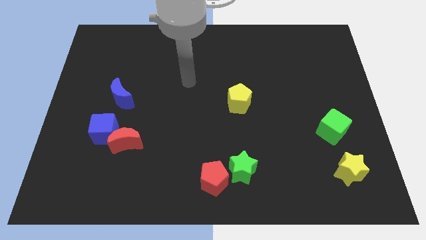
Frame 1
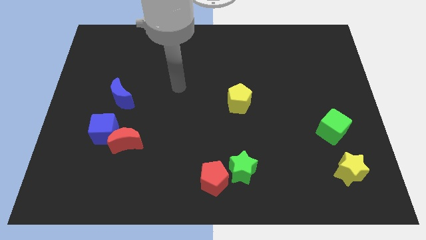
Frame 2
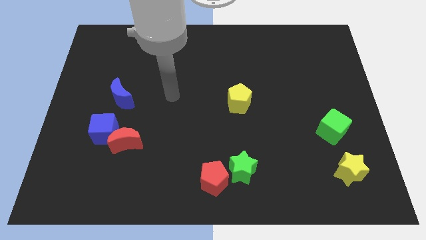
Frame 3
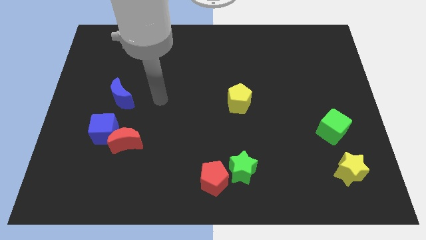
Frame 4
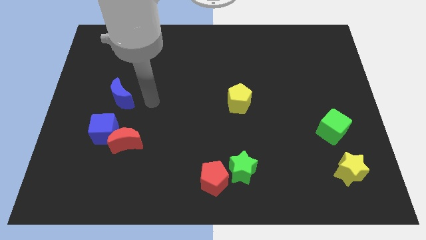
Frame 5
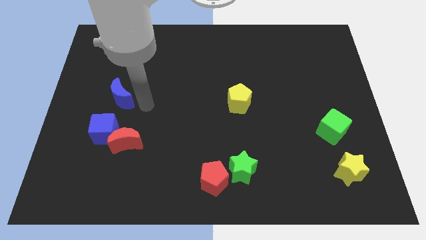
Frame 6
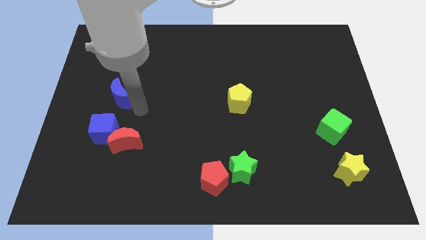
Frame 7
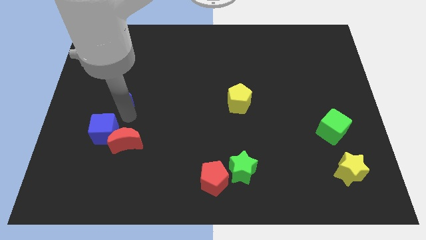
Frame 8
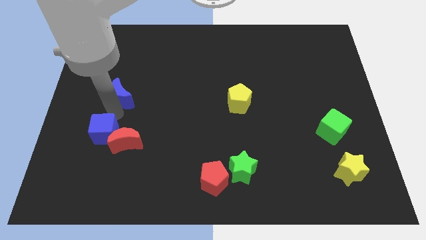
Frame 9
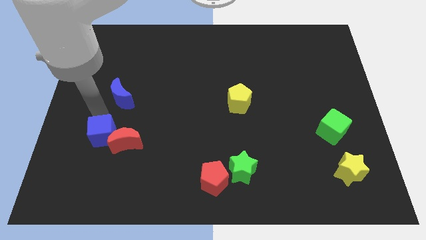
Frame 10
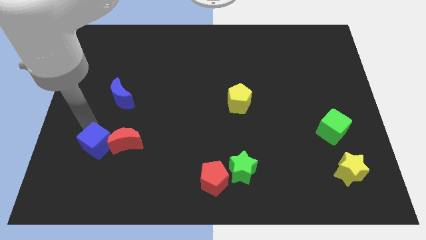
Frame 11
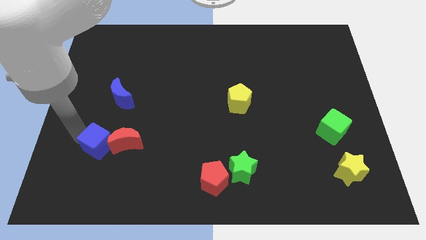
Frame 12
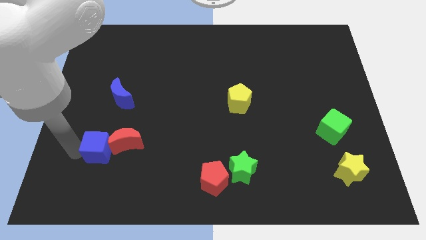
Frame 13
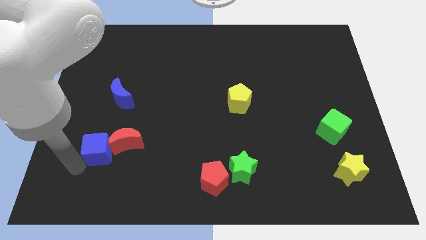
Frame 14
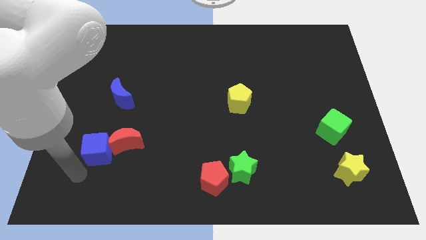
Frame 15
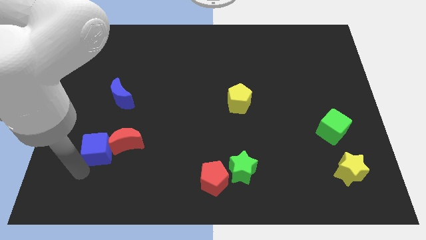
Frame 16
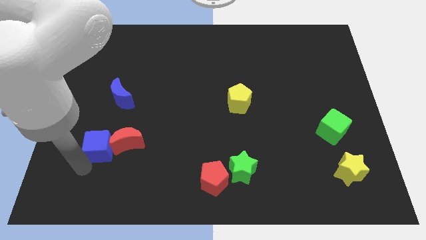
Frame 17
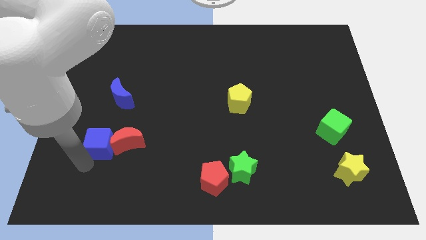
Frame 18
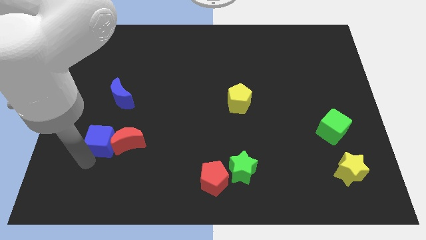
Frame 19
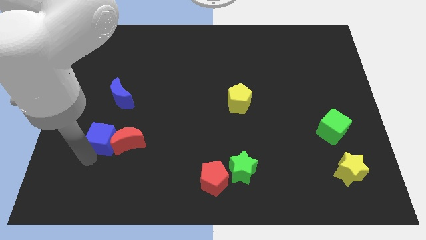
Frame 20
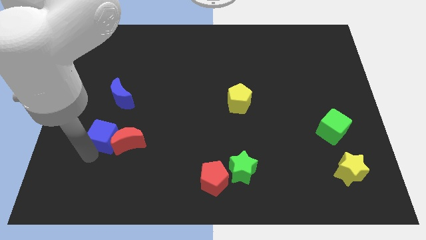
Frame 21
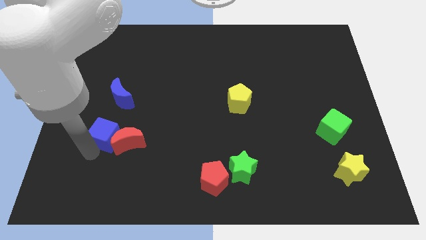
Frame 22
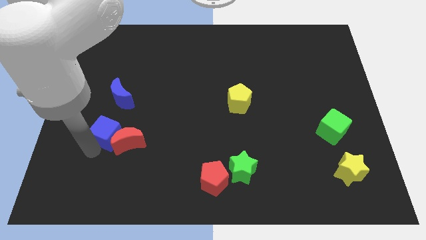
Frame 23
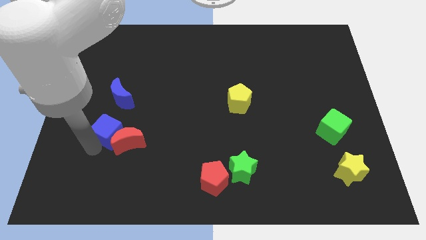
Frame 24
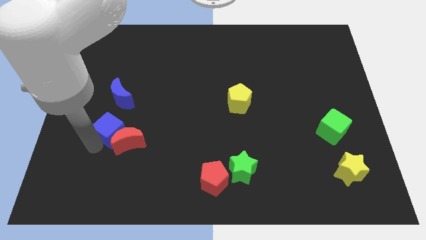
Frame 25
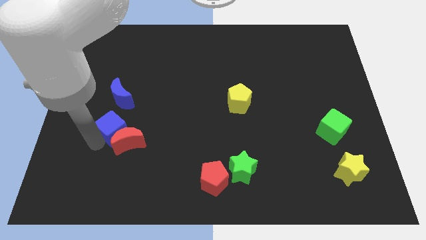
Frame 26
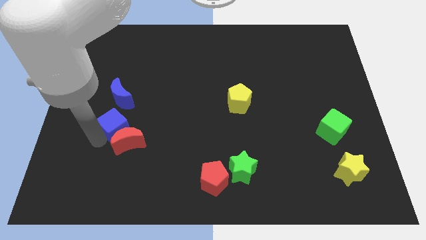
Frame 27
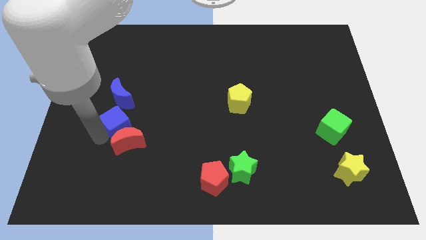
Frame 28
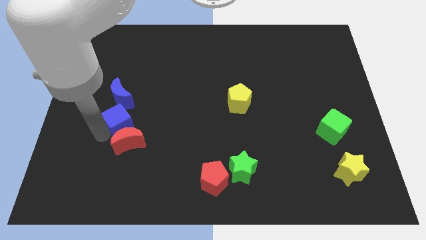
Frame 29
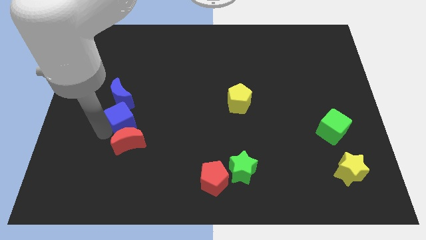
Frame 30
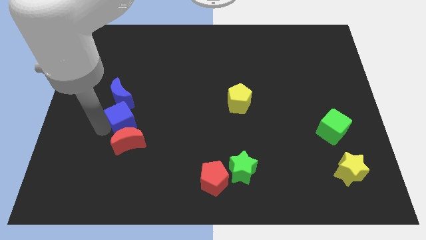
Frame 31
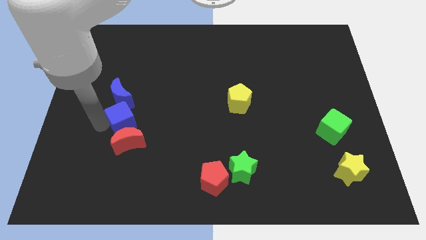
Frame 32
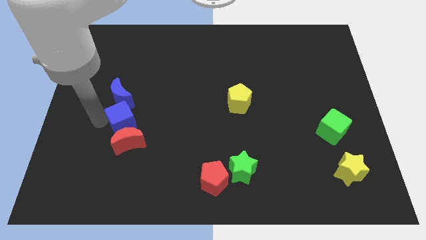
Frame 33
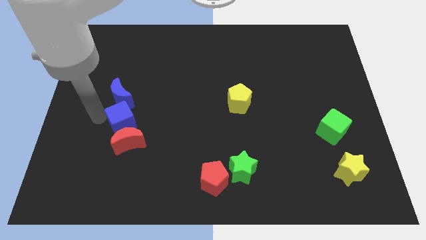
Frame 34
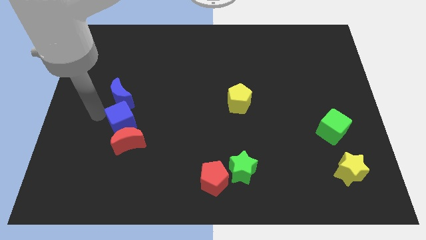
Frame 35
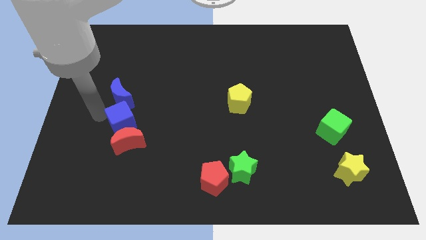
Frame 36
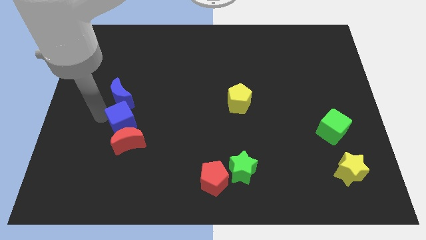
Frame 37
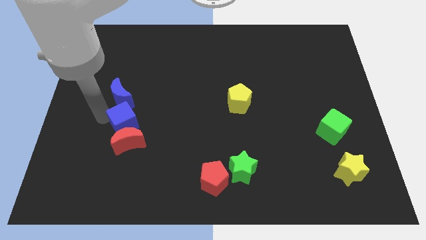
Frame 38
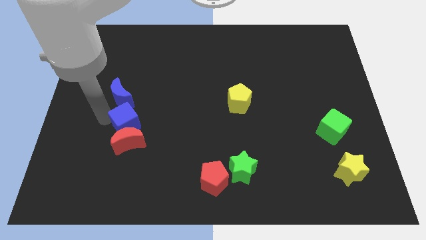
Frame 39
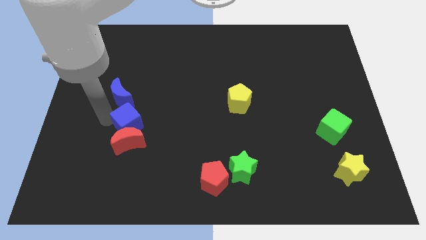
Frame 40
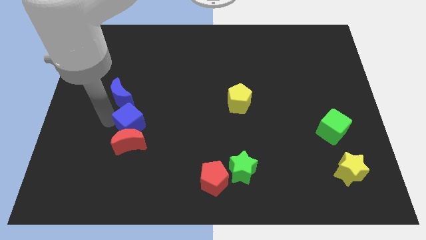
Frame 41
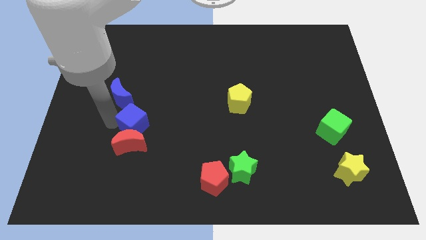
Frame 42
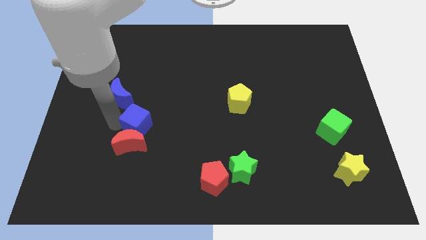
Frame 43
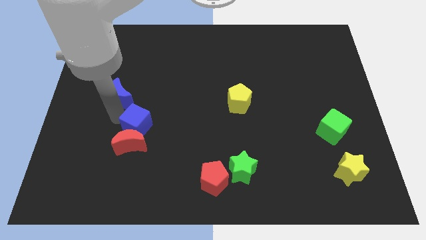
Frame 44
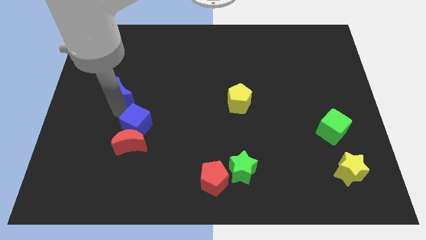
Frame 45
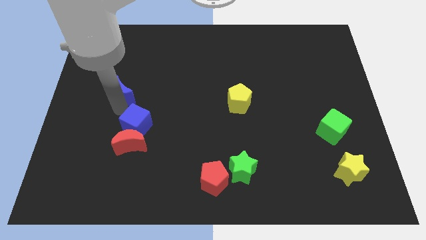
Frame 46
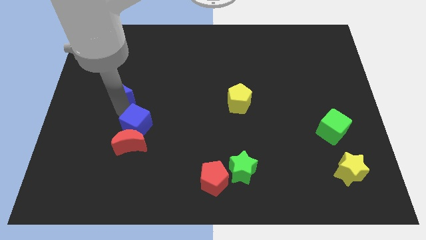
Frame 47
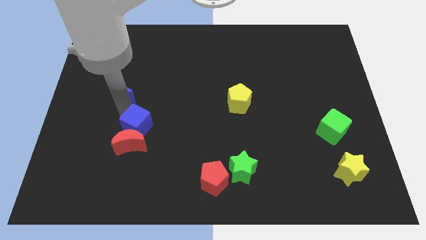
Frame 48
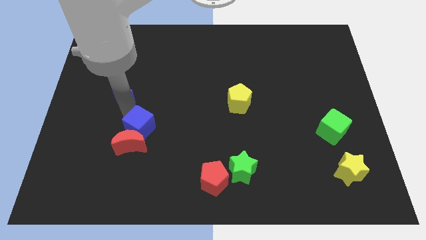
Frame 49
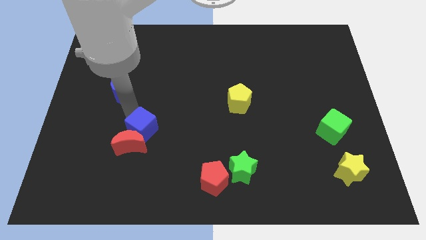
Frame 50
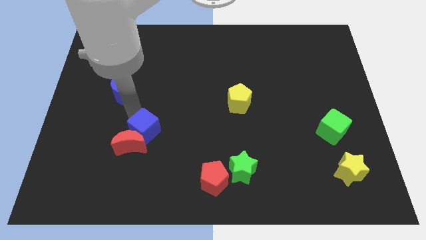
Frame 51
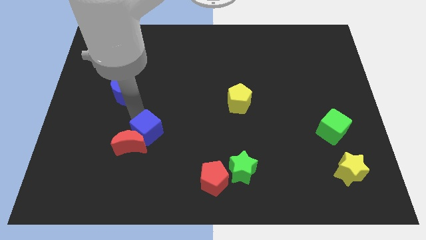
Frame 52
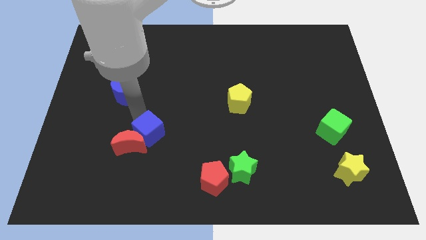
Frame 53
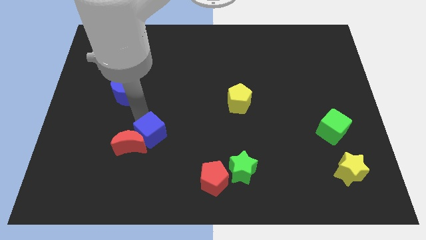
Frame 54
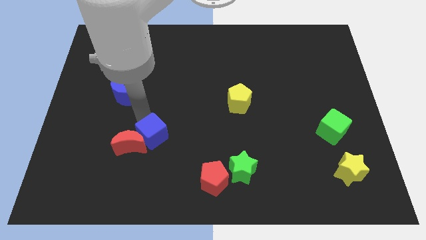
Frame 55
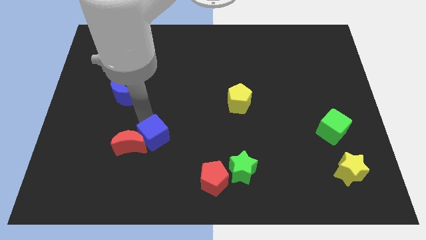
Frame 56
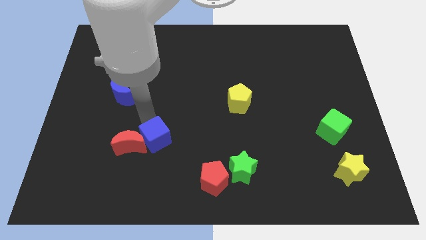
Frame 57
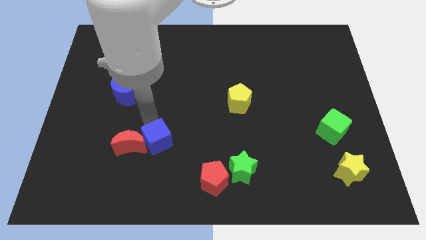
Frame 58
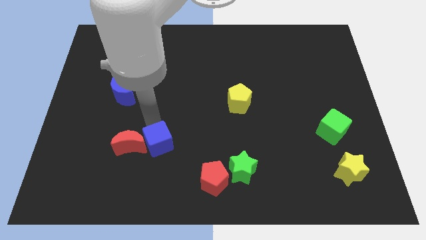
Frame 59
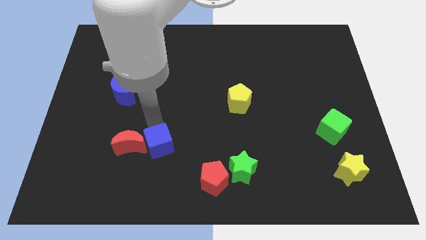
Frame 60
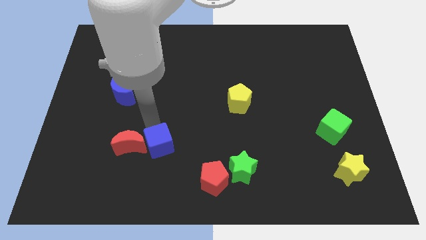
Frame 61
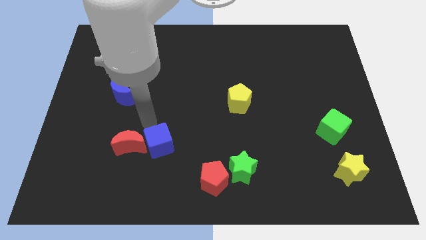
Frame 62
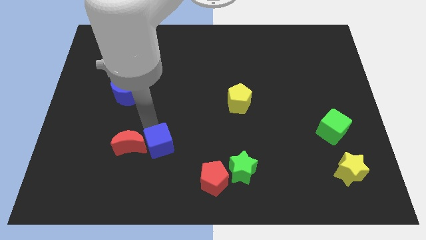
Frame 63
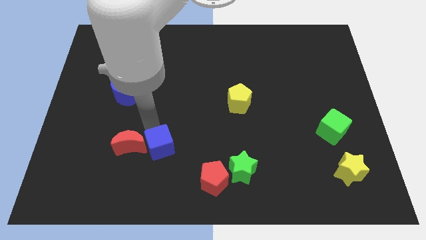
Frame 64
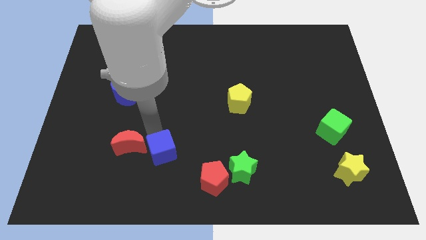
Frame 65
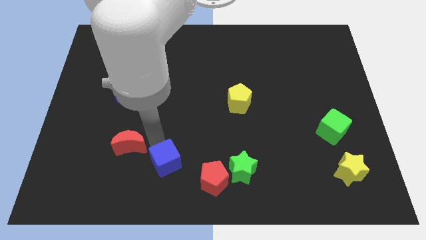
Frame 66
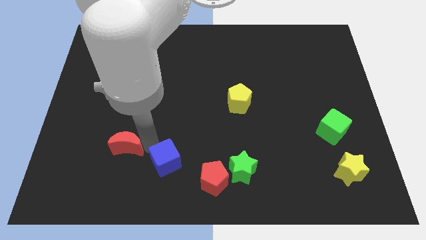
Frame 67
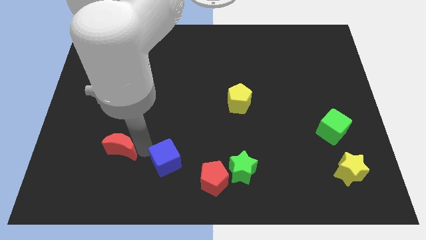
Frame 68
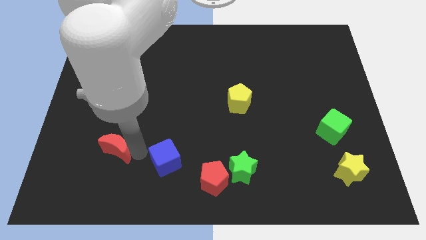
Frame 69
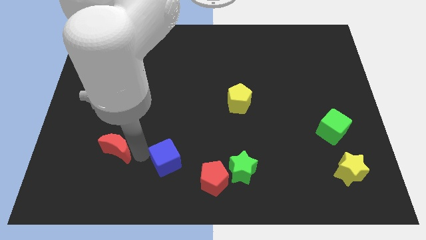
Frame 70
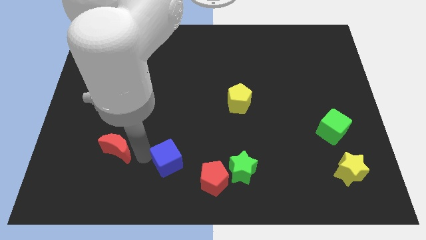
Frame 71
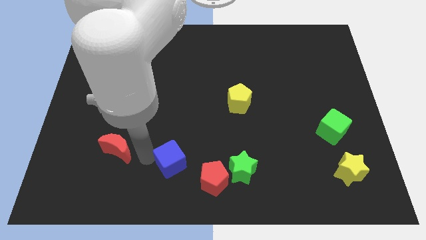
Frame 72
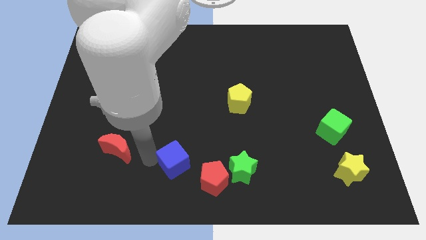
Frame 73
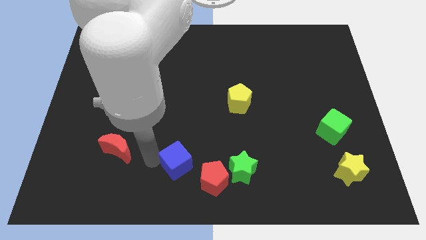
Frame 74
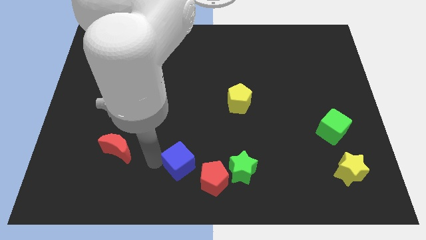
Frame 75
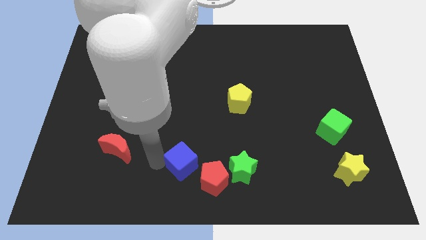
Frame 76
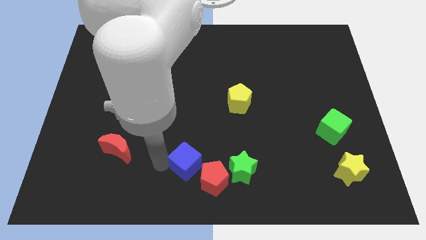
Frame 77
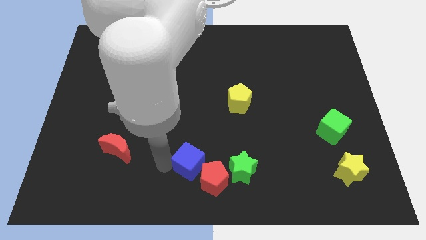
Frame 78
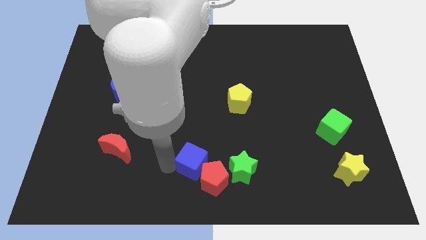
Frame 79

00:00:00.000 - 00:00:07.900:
slide the blue cube close to the red pentagon
